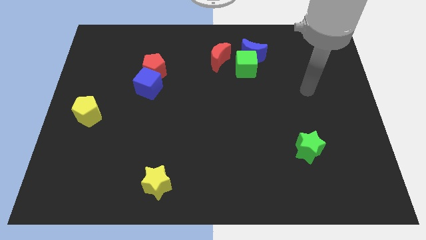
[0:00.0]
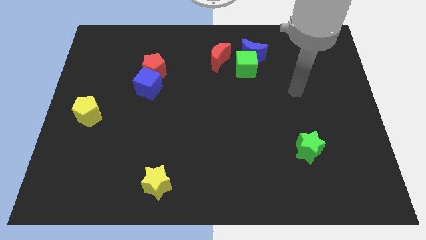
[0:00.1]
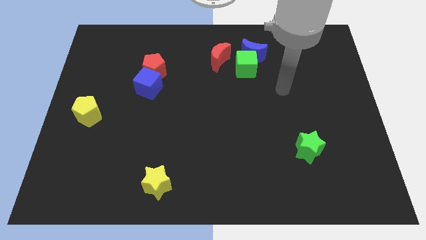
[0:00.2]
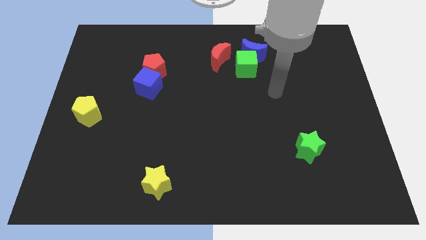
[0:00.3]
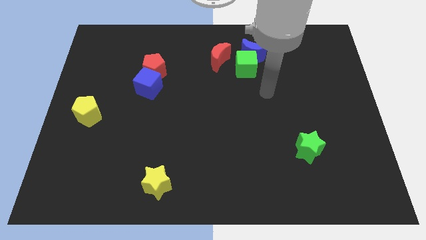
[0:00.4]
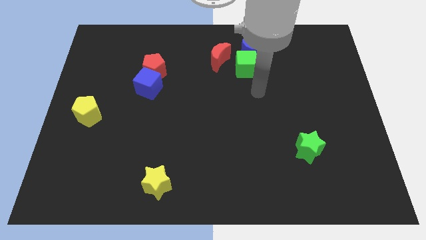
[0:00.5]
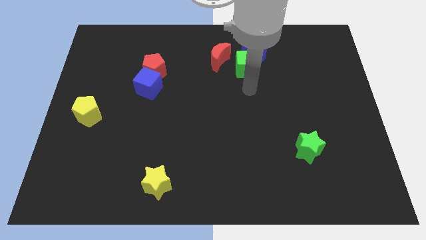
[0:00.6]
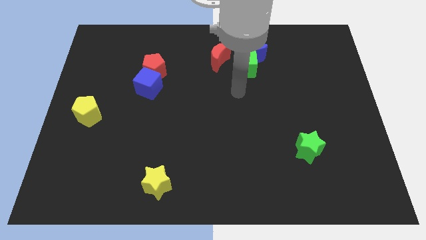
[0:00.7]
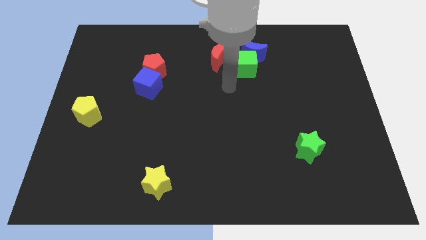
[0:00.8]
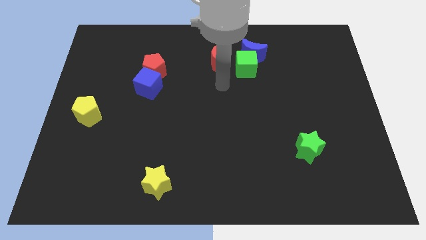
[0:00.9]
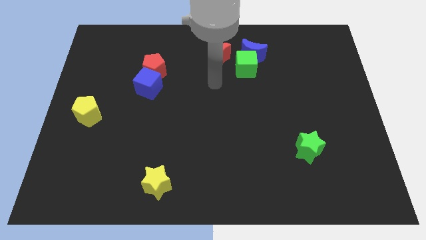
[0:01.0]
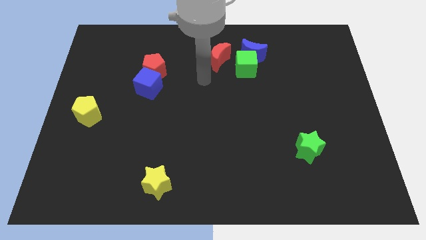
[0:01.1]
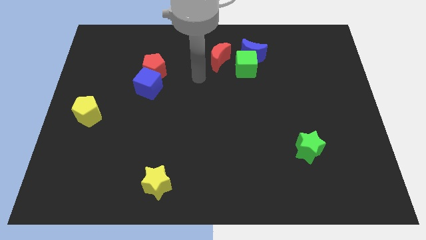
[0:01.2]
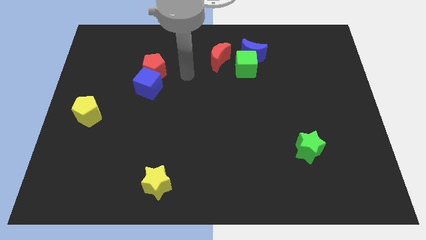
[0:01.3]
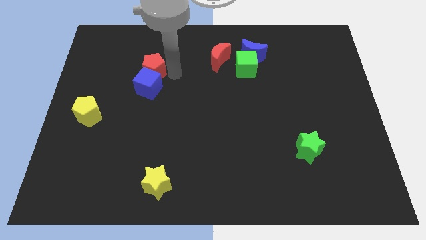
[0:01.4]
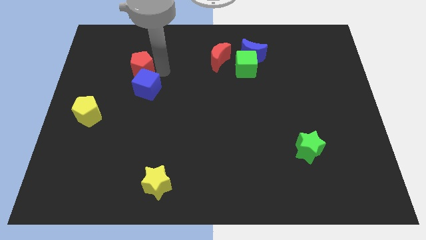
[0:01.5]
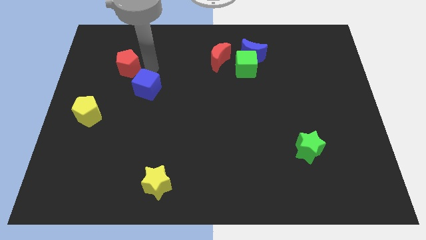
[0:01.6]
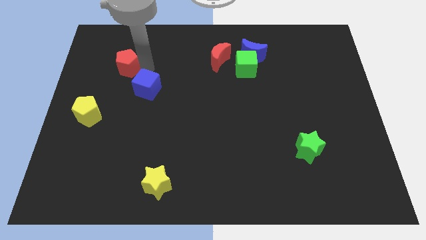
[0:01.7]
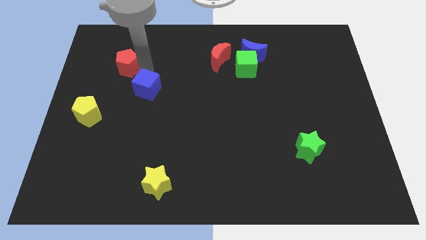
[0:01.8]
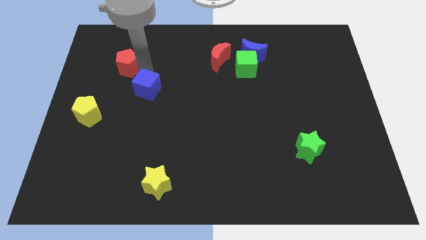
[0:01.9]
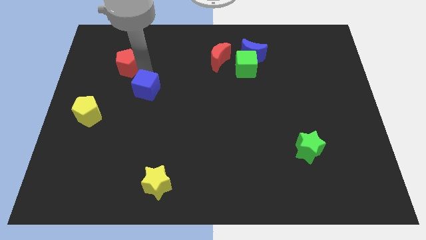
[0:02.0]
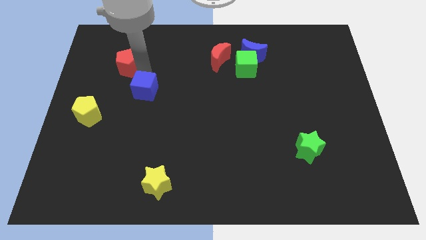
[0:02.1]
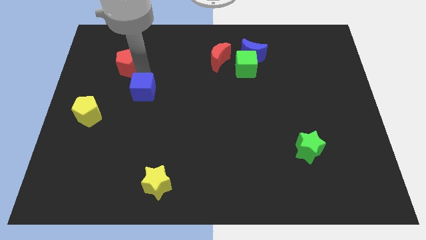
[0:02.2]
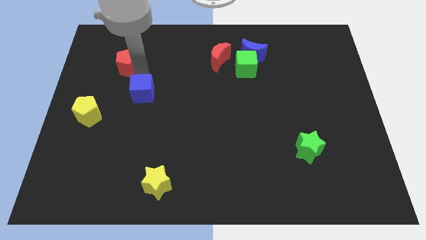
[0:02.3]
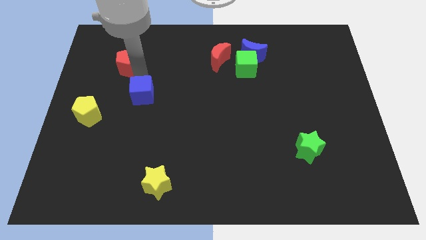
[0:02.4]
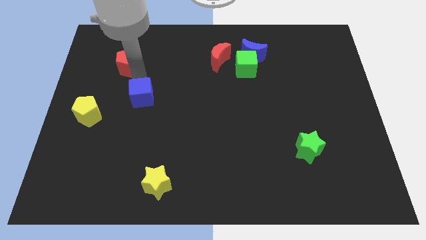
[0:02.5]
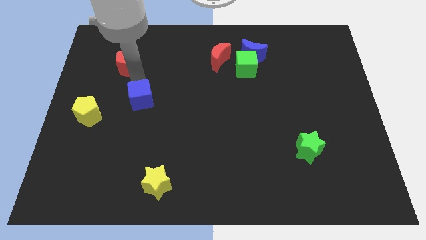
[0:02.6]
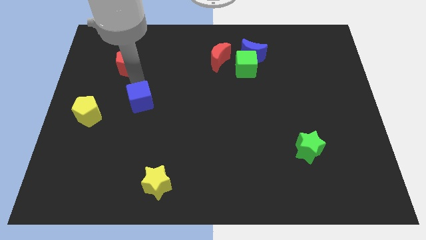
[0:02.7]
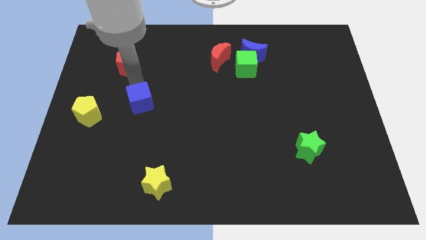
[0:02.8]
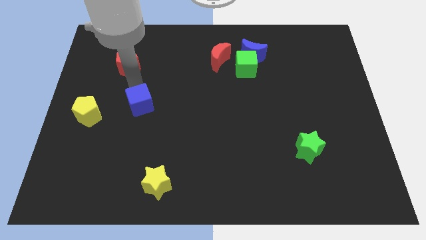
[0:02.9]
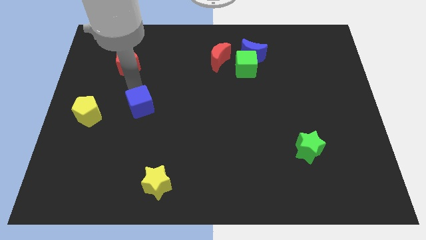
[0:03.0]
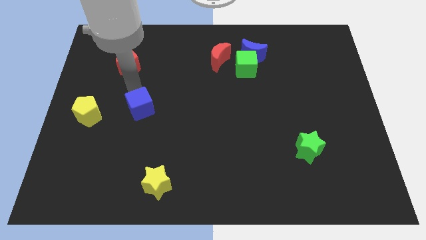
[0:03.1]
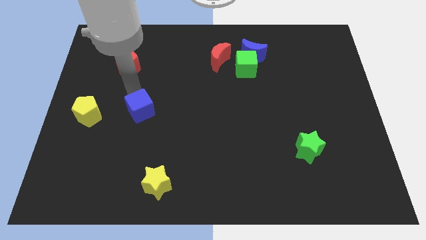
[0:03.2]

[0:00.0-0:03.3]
move the blue cube downwards a bit

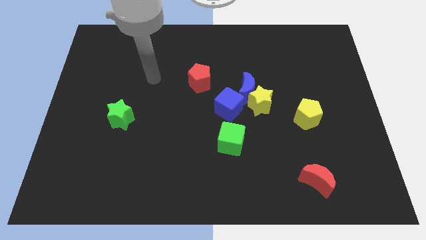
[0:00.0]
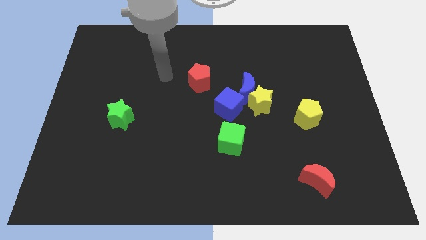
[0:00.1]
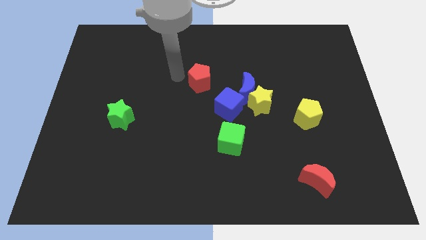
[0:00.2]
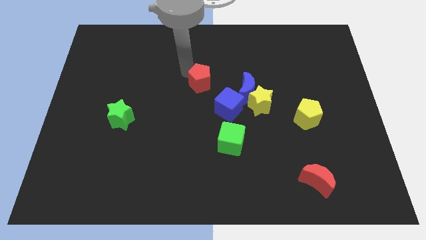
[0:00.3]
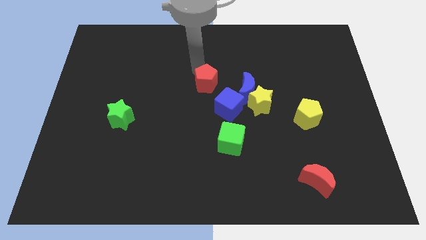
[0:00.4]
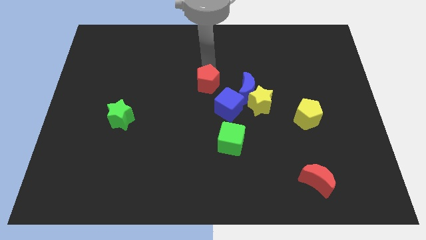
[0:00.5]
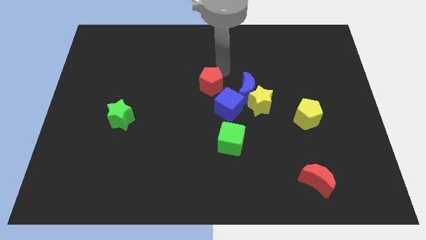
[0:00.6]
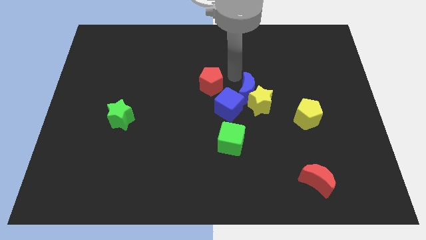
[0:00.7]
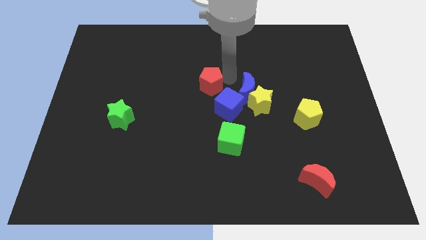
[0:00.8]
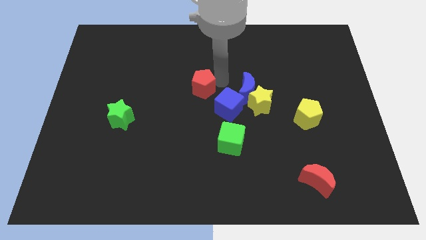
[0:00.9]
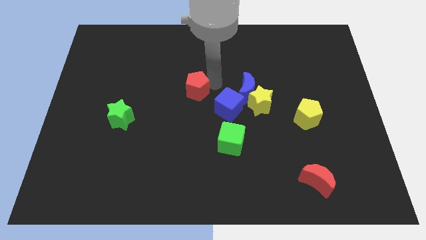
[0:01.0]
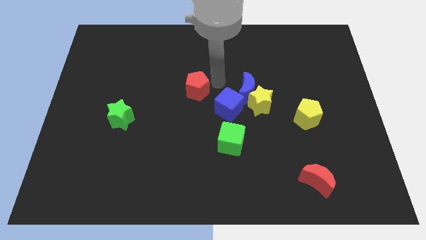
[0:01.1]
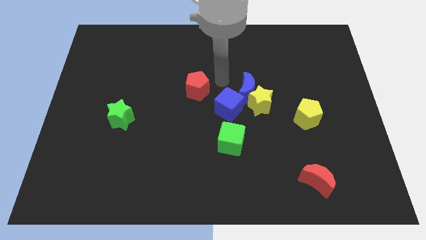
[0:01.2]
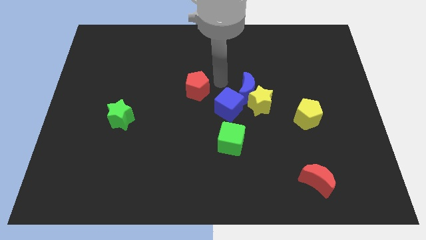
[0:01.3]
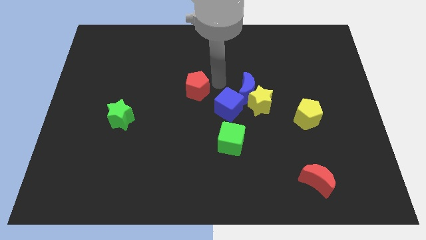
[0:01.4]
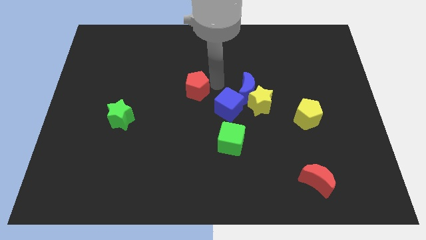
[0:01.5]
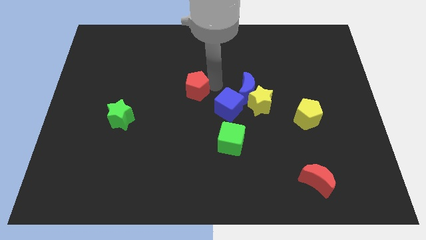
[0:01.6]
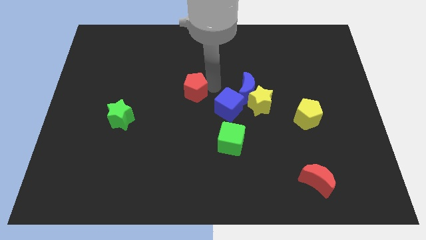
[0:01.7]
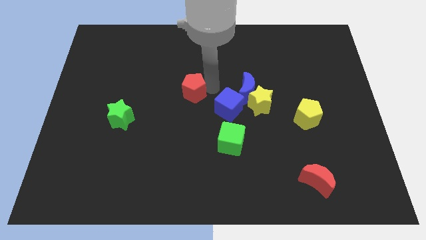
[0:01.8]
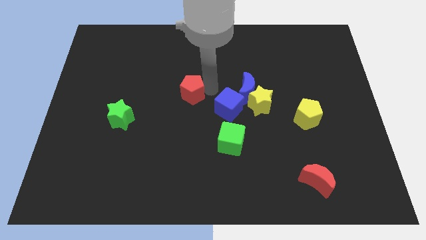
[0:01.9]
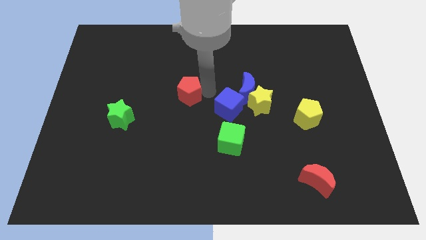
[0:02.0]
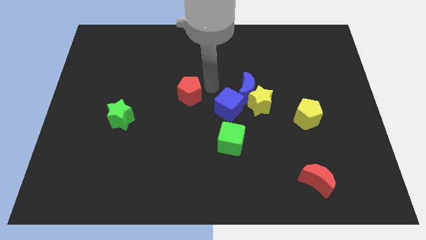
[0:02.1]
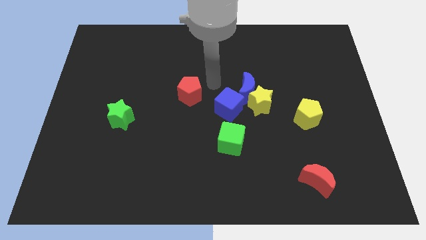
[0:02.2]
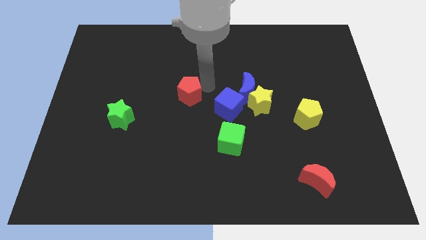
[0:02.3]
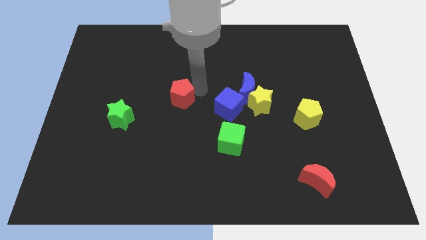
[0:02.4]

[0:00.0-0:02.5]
slide the red pentagon a little diagonally downwards and to the left

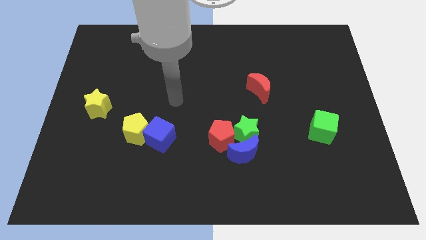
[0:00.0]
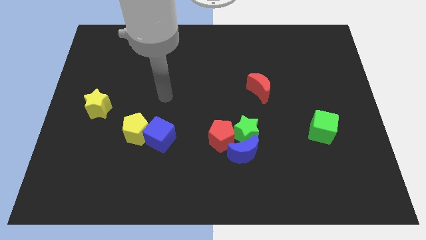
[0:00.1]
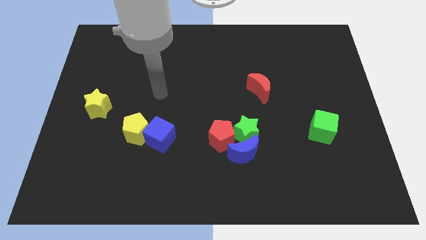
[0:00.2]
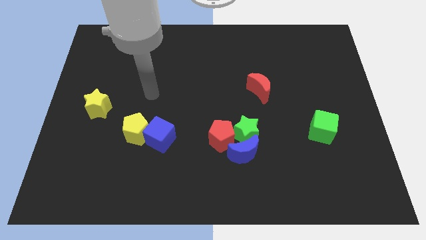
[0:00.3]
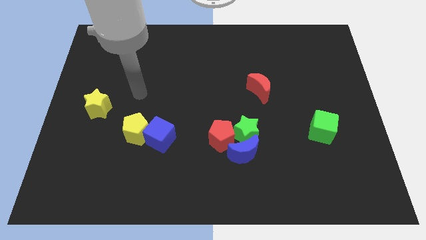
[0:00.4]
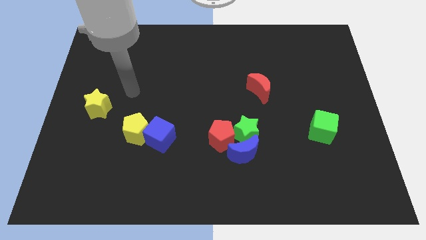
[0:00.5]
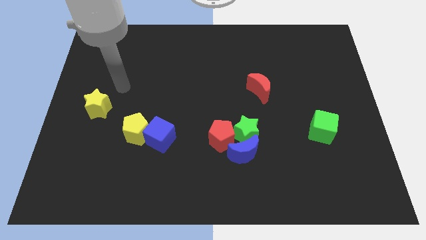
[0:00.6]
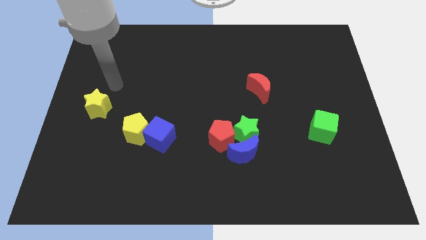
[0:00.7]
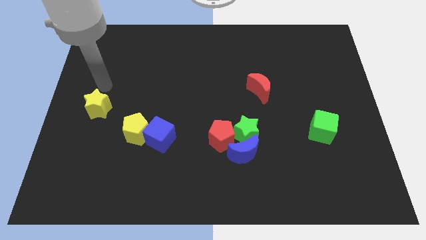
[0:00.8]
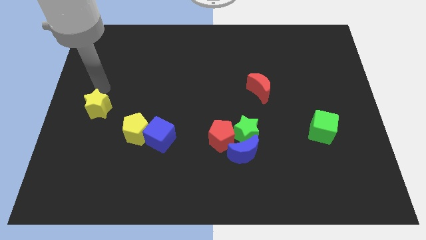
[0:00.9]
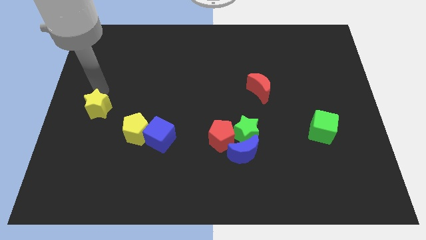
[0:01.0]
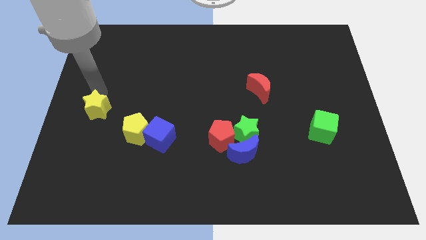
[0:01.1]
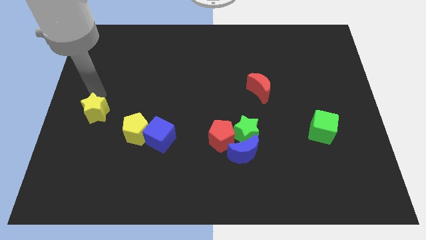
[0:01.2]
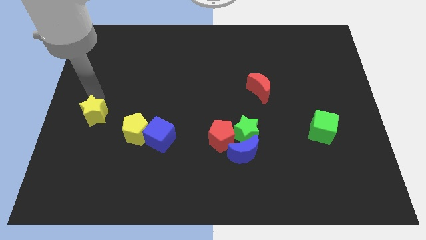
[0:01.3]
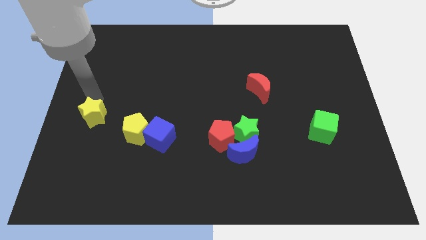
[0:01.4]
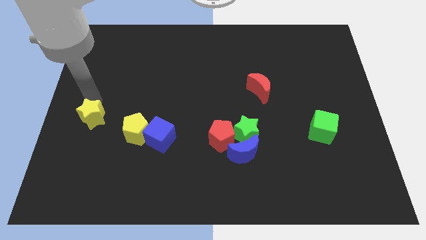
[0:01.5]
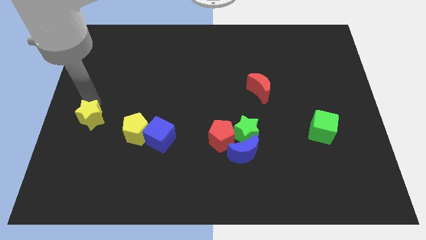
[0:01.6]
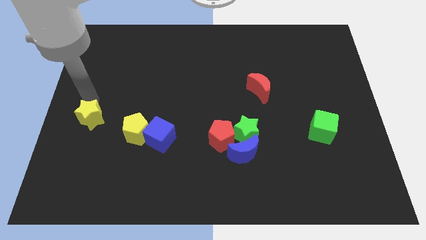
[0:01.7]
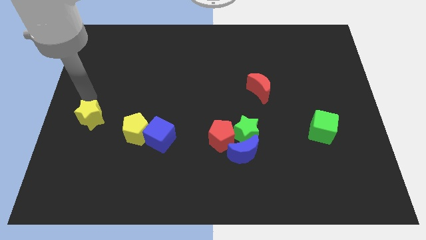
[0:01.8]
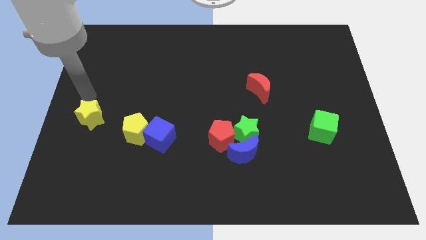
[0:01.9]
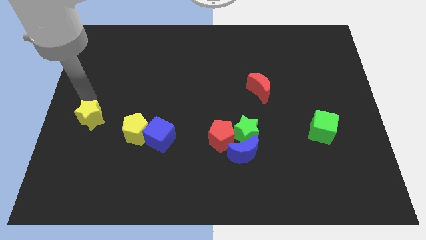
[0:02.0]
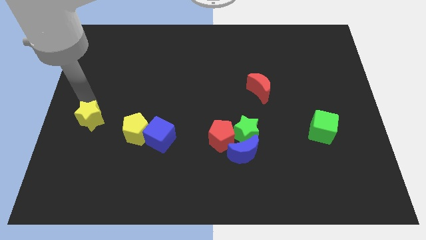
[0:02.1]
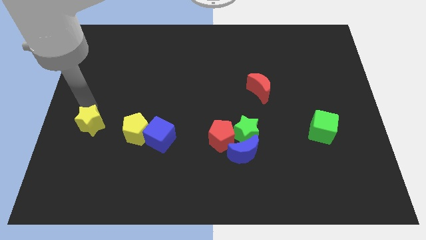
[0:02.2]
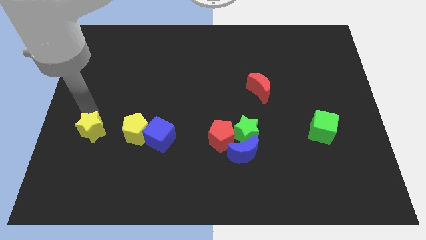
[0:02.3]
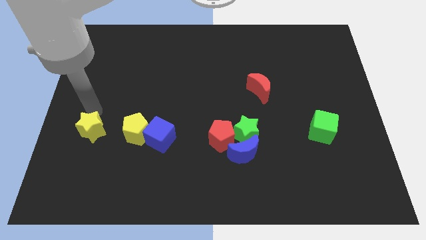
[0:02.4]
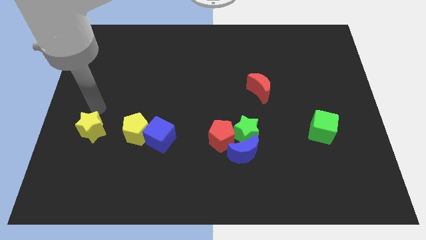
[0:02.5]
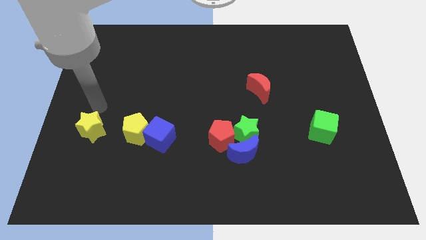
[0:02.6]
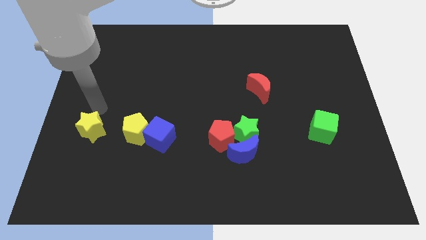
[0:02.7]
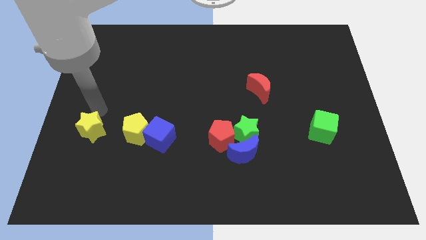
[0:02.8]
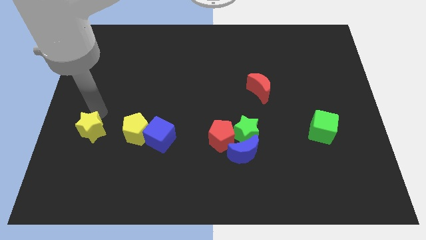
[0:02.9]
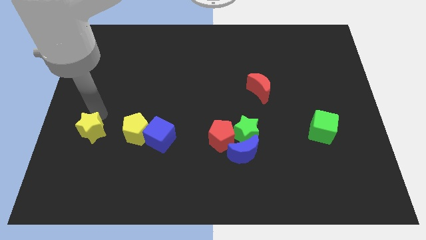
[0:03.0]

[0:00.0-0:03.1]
slightly move the yellow star down
